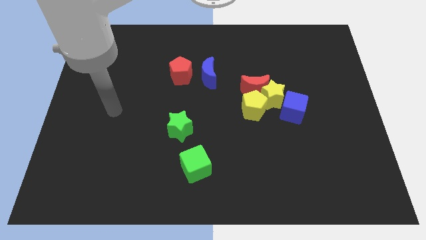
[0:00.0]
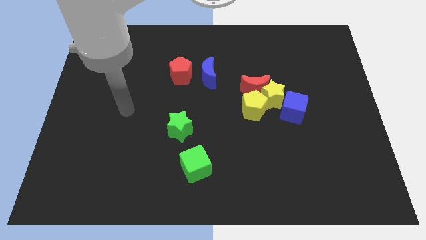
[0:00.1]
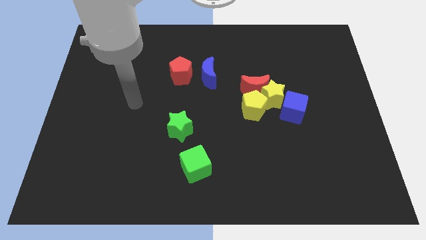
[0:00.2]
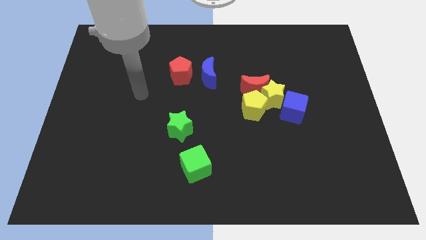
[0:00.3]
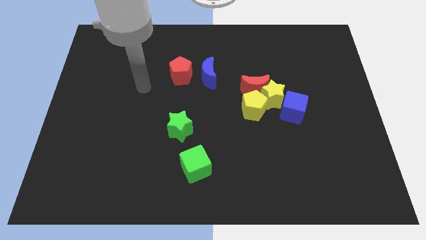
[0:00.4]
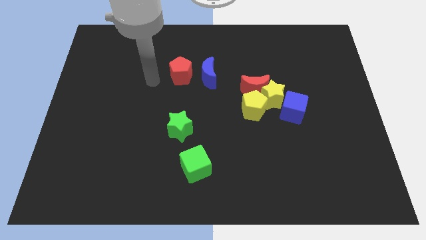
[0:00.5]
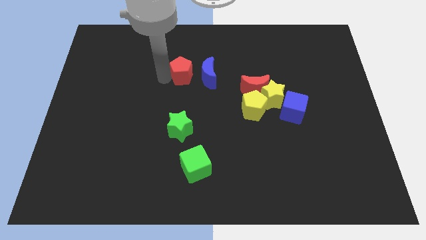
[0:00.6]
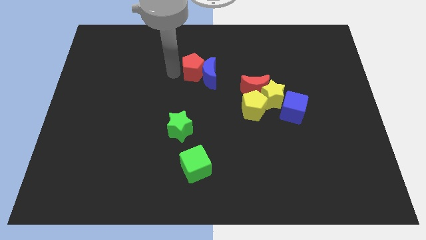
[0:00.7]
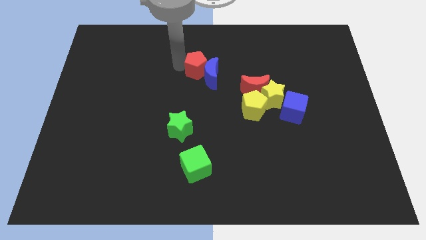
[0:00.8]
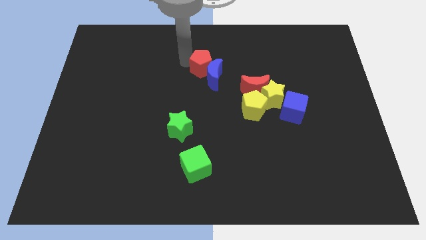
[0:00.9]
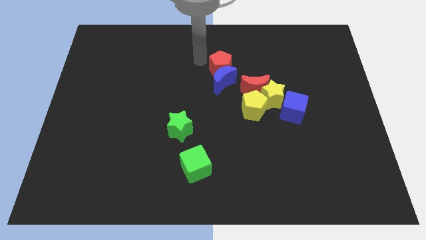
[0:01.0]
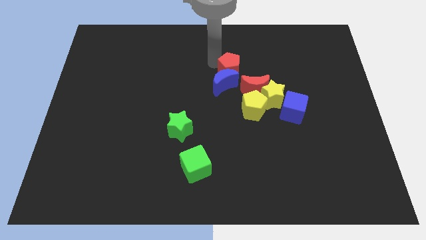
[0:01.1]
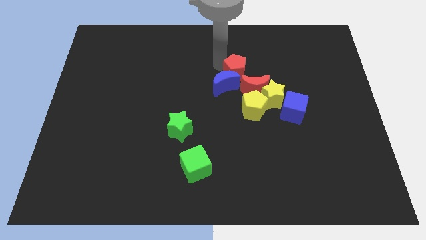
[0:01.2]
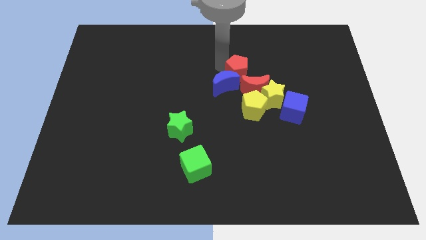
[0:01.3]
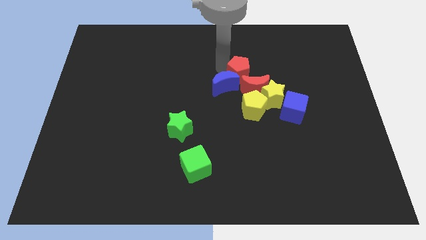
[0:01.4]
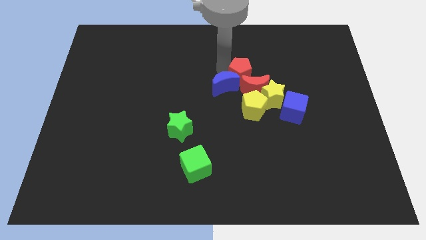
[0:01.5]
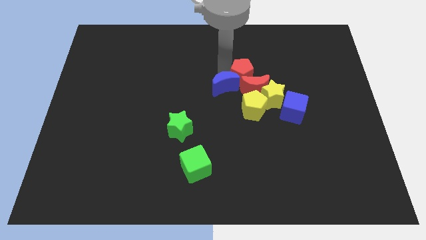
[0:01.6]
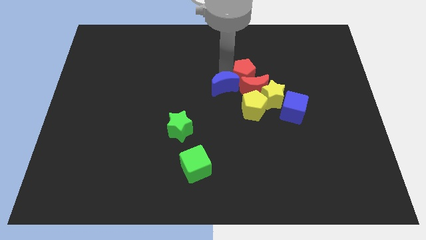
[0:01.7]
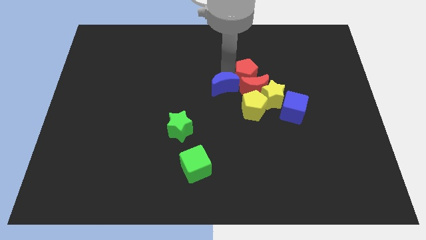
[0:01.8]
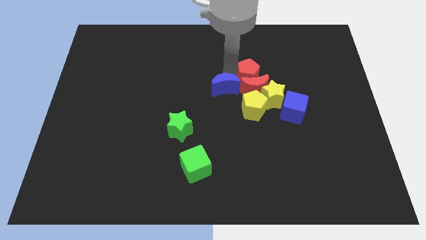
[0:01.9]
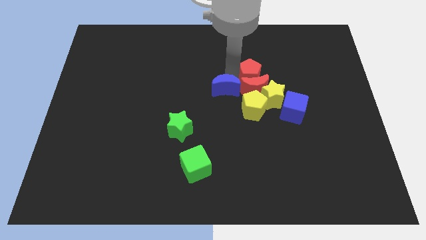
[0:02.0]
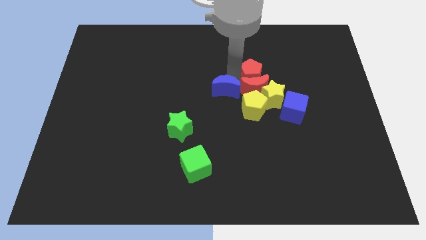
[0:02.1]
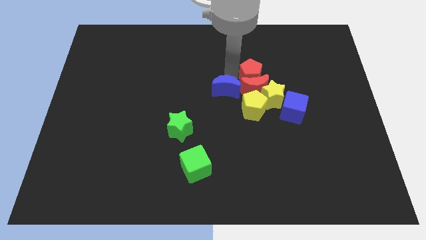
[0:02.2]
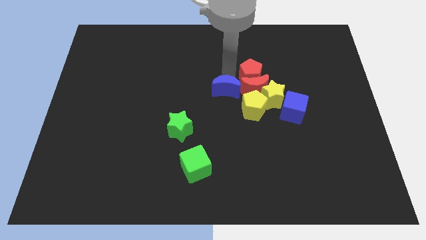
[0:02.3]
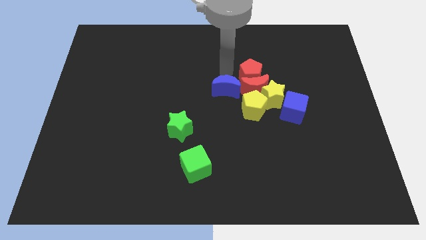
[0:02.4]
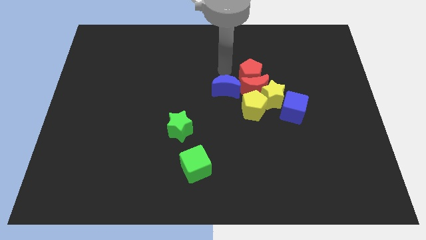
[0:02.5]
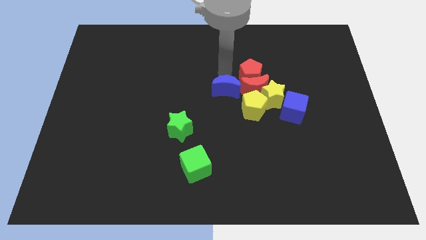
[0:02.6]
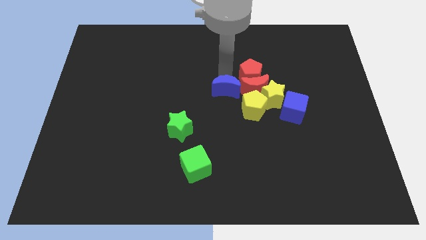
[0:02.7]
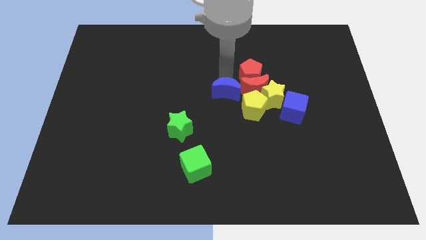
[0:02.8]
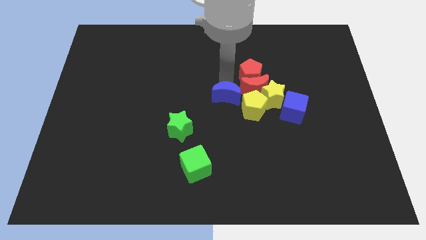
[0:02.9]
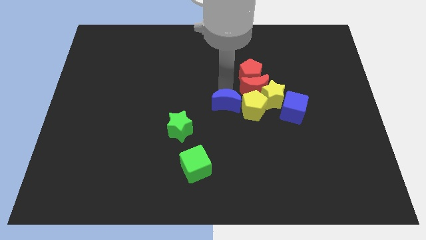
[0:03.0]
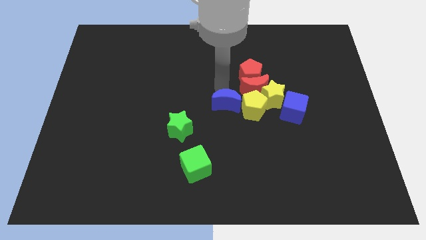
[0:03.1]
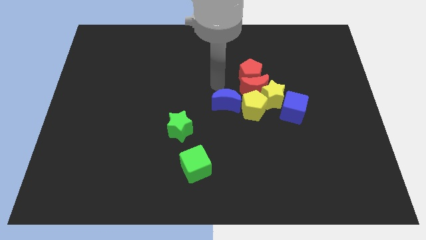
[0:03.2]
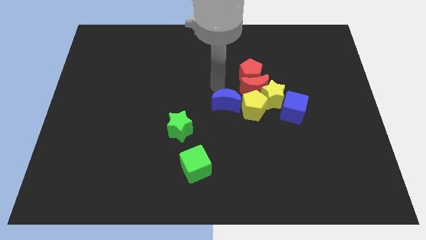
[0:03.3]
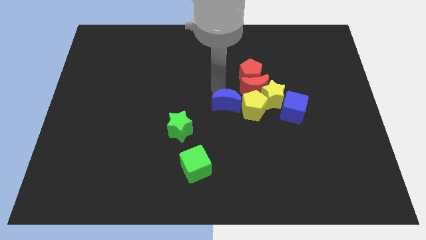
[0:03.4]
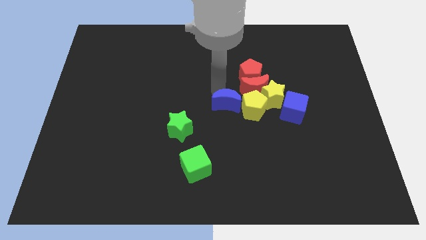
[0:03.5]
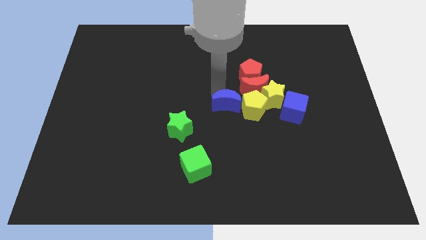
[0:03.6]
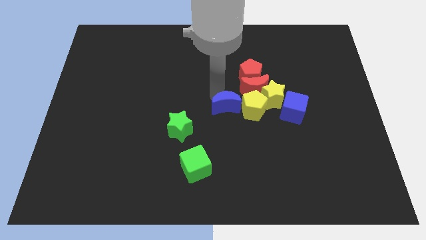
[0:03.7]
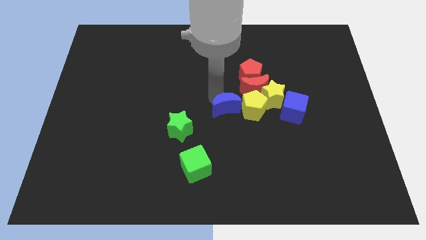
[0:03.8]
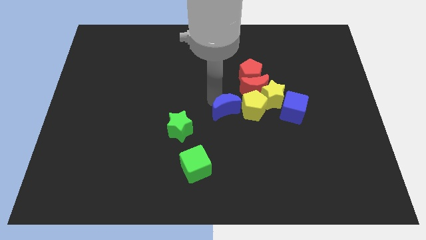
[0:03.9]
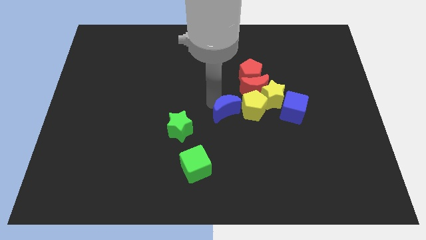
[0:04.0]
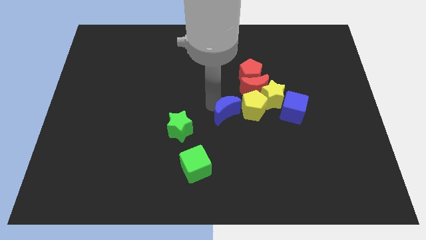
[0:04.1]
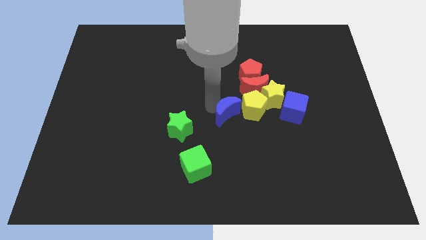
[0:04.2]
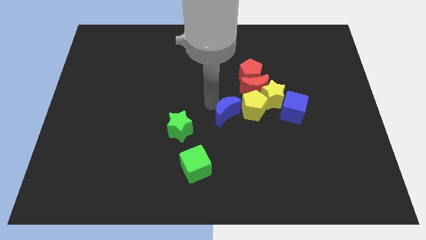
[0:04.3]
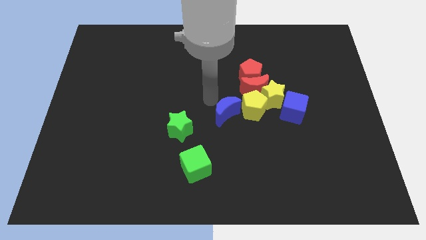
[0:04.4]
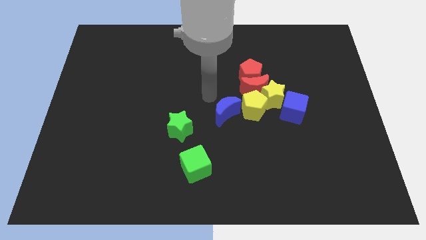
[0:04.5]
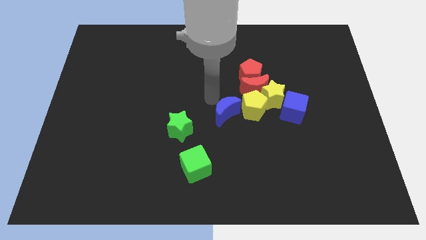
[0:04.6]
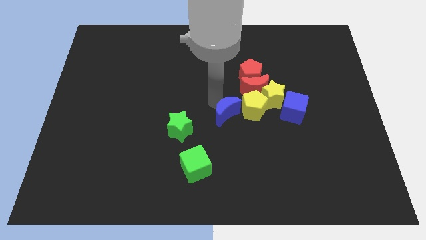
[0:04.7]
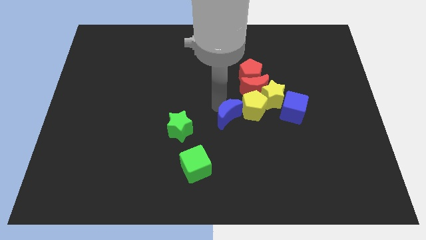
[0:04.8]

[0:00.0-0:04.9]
move the blue moon to the bottom left side of the yellow star

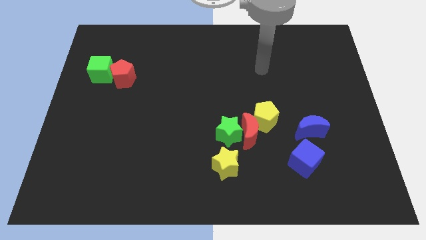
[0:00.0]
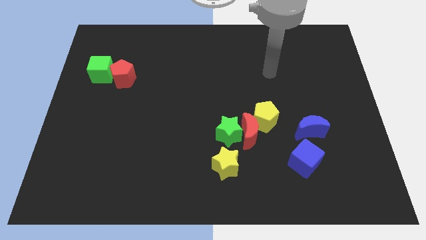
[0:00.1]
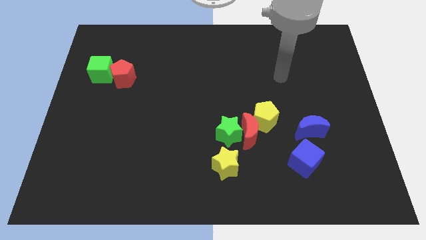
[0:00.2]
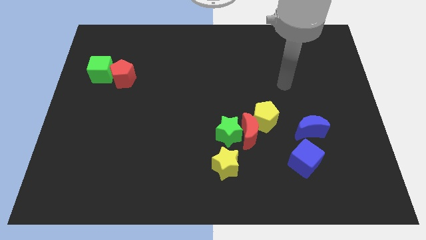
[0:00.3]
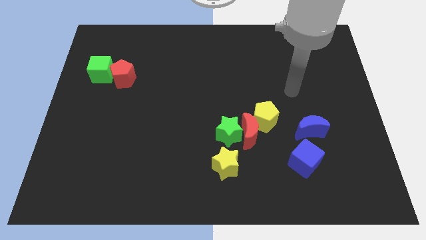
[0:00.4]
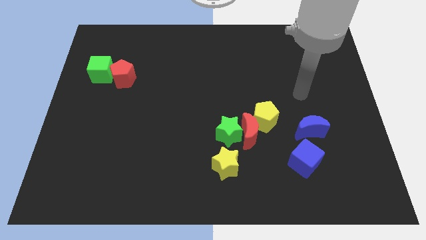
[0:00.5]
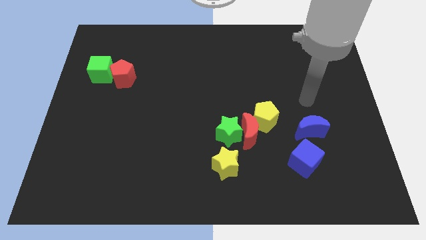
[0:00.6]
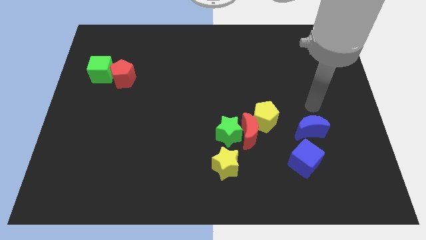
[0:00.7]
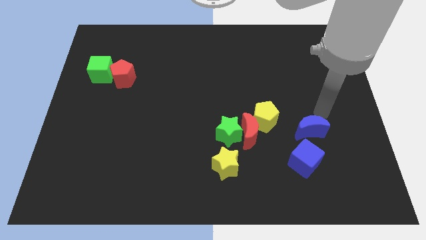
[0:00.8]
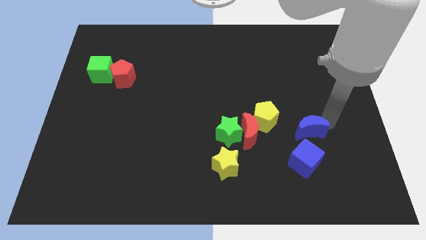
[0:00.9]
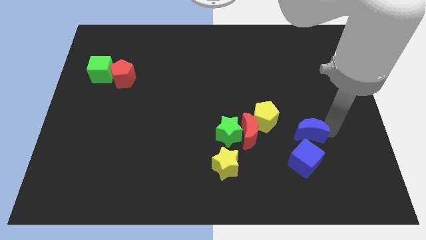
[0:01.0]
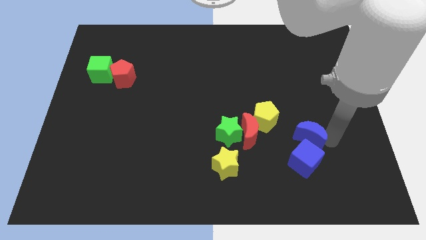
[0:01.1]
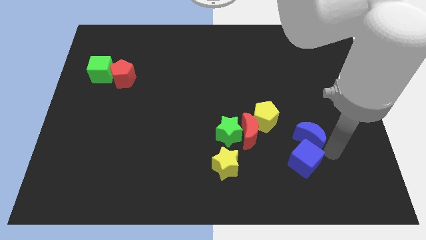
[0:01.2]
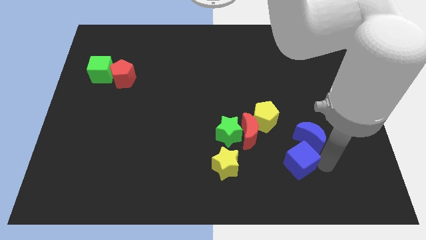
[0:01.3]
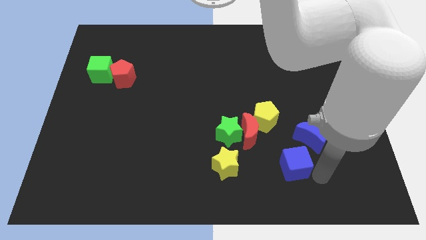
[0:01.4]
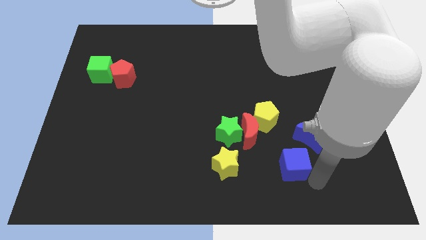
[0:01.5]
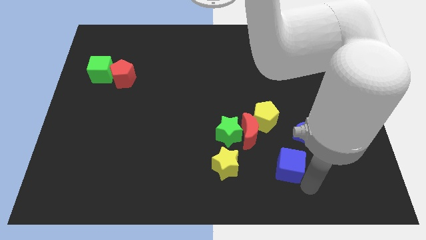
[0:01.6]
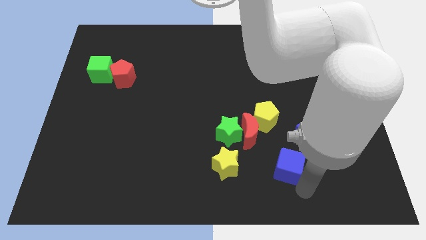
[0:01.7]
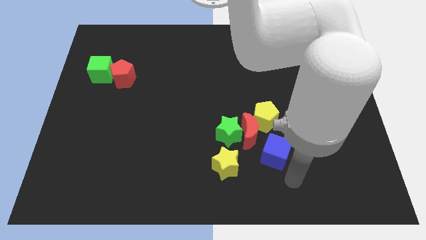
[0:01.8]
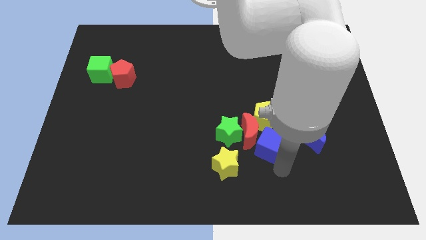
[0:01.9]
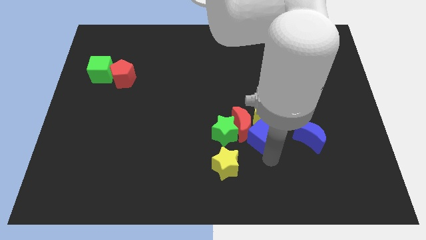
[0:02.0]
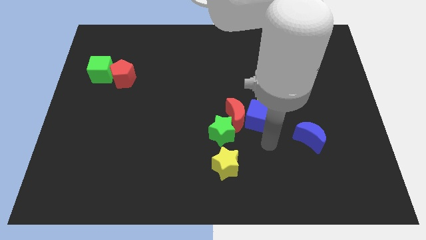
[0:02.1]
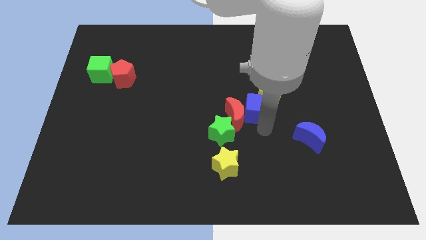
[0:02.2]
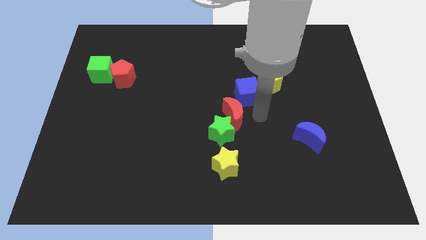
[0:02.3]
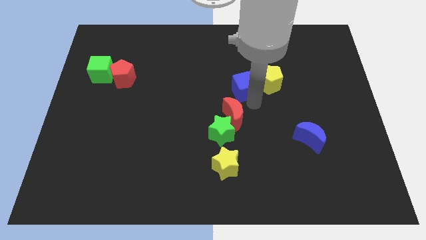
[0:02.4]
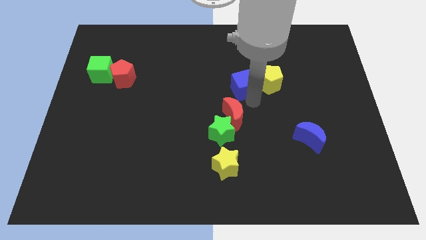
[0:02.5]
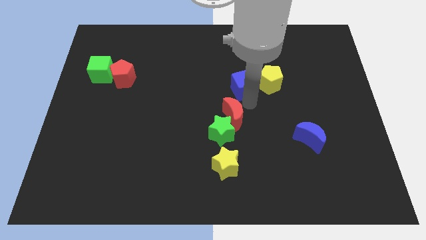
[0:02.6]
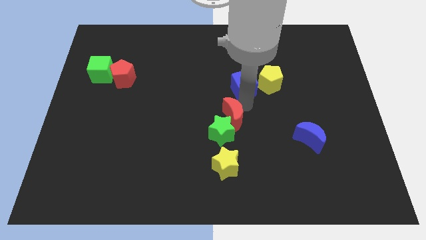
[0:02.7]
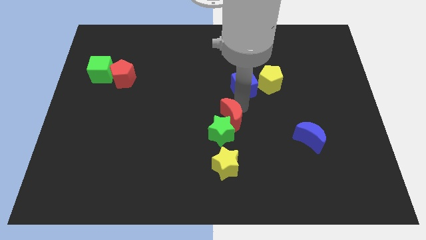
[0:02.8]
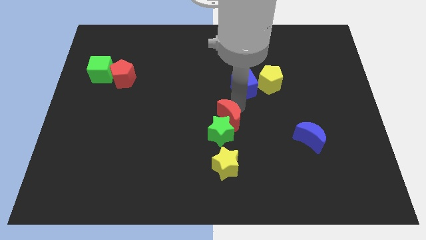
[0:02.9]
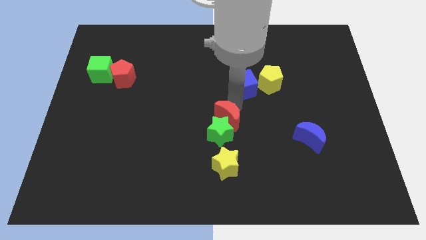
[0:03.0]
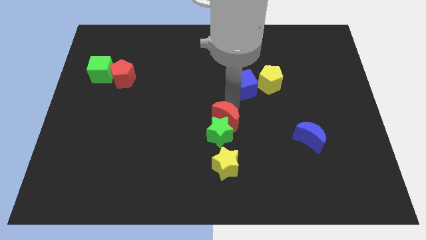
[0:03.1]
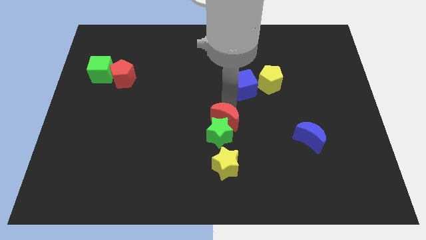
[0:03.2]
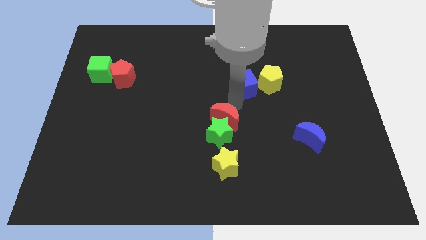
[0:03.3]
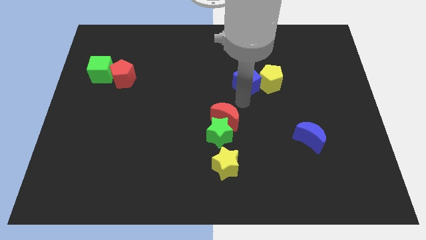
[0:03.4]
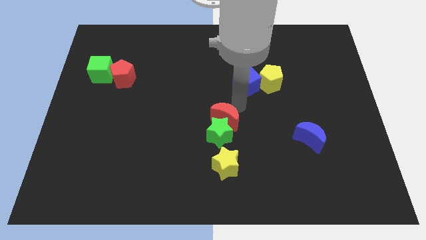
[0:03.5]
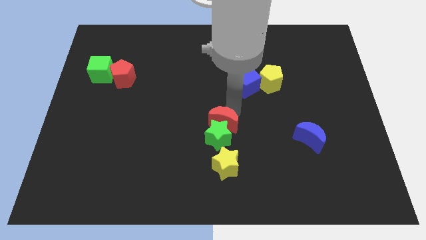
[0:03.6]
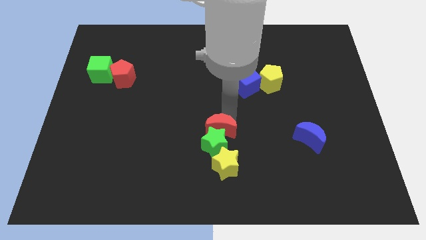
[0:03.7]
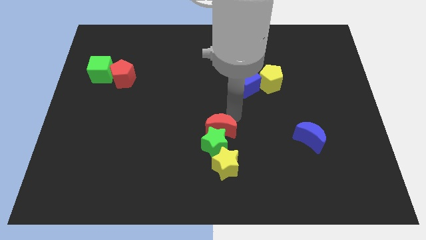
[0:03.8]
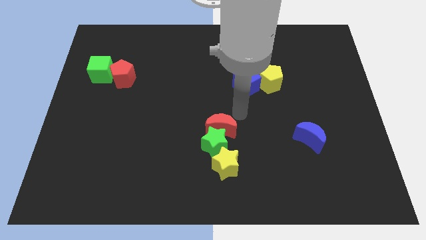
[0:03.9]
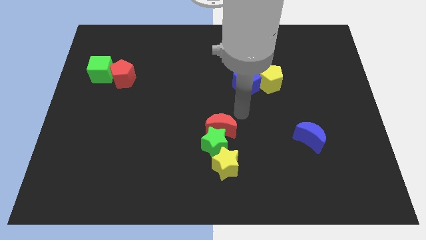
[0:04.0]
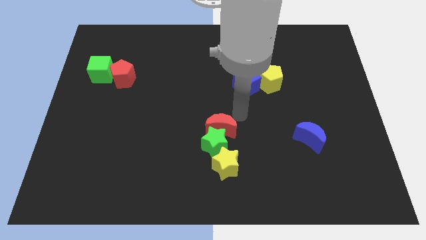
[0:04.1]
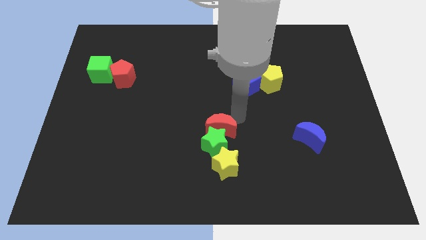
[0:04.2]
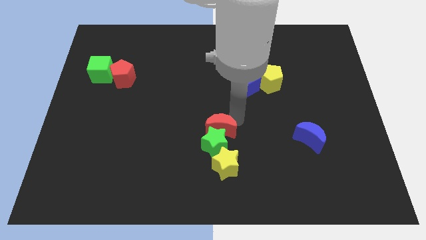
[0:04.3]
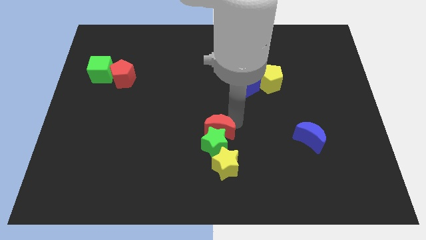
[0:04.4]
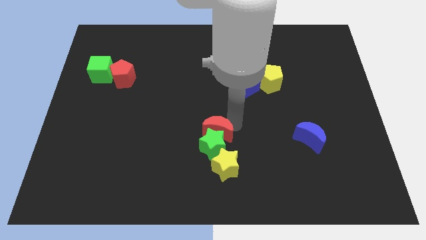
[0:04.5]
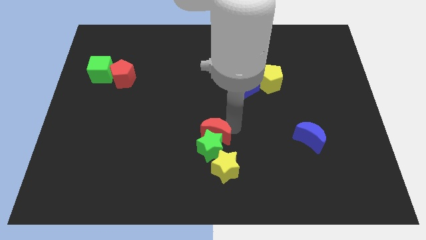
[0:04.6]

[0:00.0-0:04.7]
put the red moon to the top left side of the yellow star
